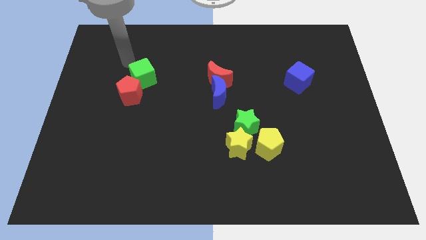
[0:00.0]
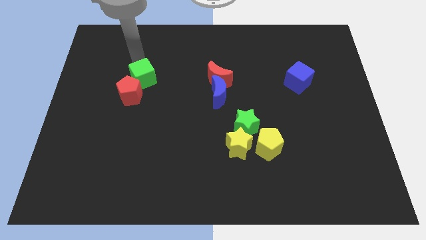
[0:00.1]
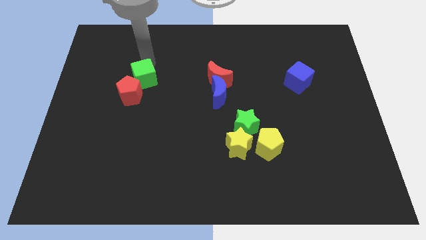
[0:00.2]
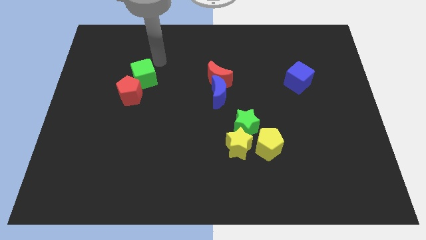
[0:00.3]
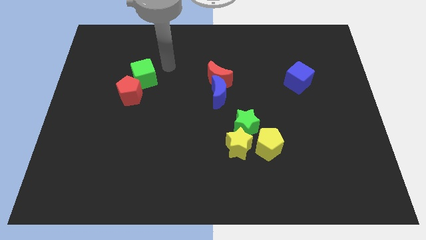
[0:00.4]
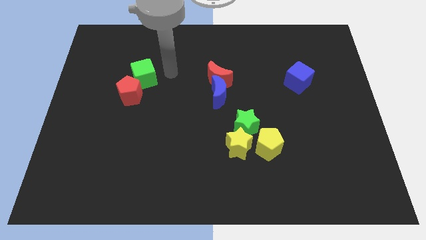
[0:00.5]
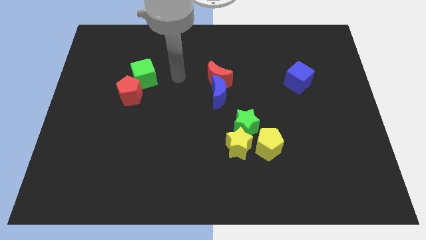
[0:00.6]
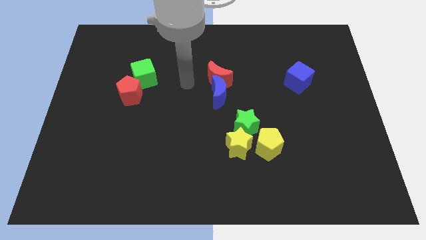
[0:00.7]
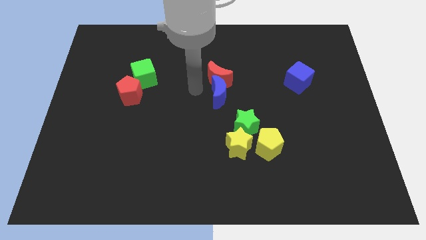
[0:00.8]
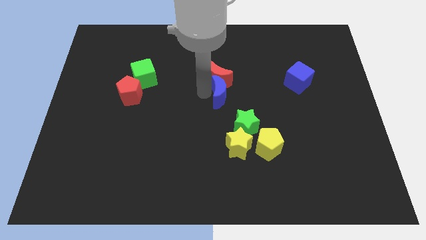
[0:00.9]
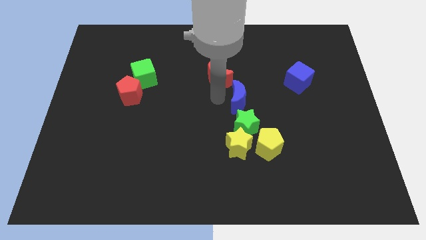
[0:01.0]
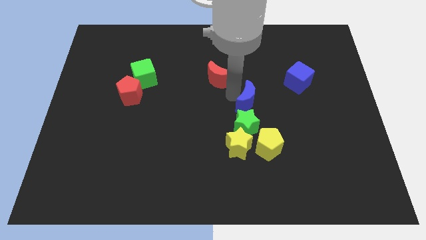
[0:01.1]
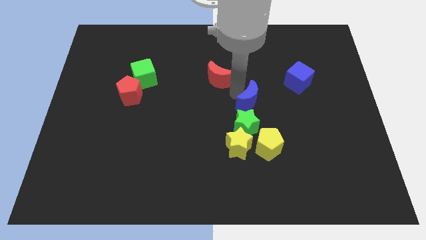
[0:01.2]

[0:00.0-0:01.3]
separate the red moon from the blue moon

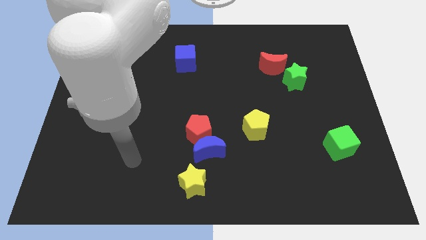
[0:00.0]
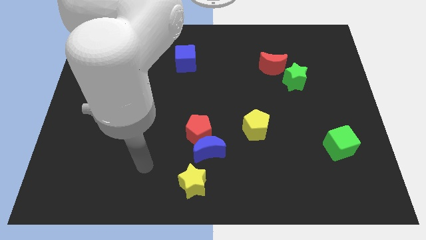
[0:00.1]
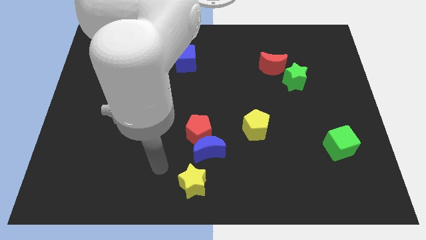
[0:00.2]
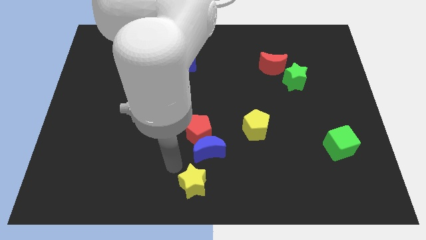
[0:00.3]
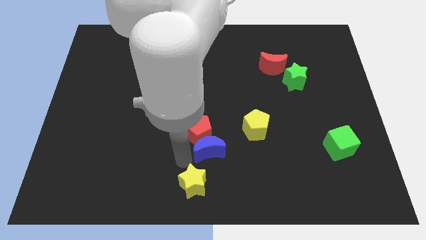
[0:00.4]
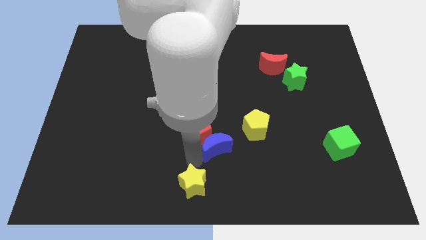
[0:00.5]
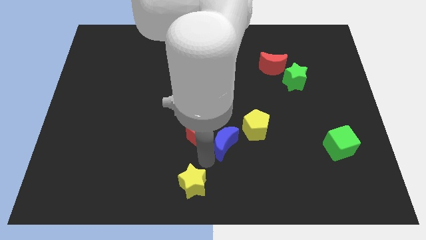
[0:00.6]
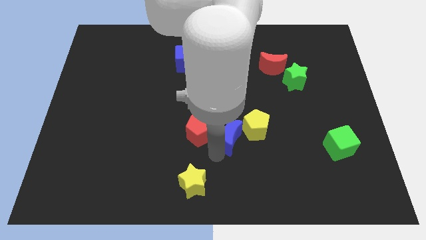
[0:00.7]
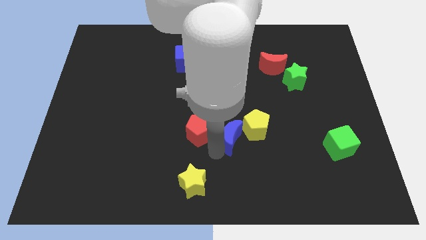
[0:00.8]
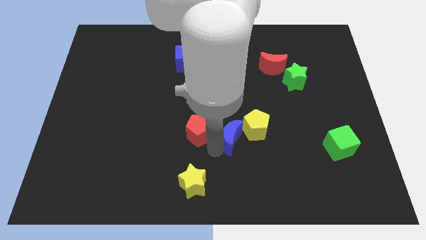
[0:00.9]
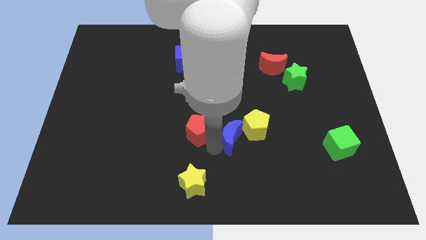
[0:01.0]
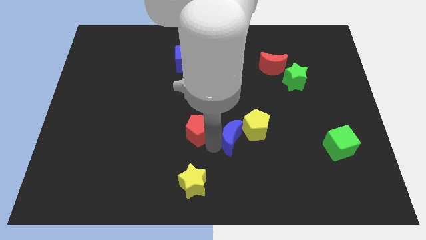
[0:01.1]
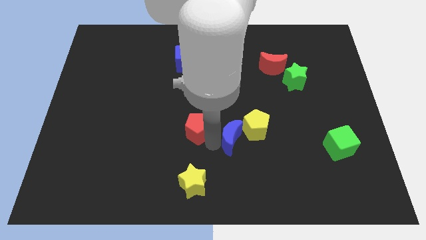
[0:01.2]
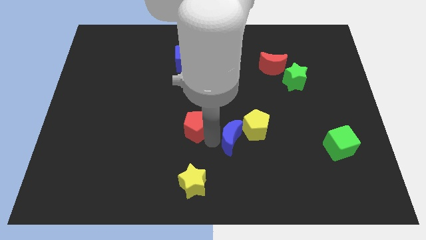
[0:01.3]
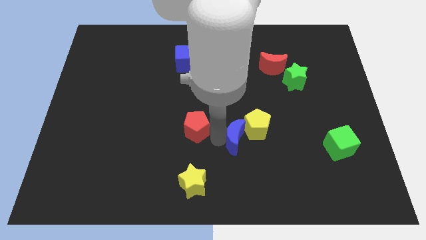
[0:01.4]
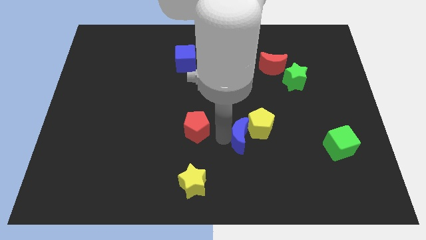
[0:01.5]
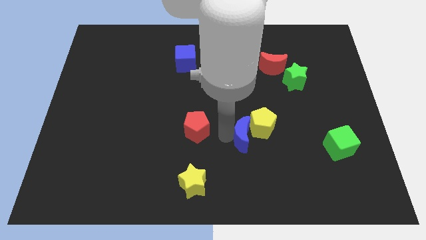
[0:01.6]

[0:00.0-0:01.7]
separate the red pentagon from the blue moon

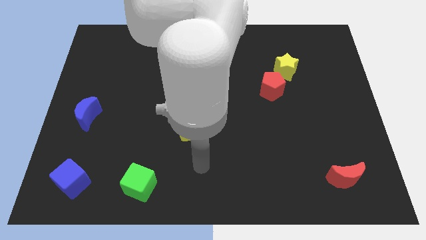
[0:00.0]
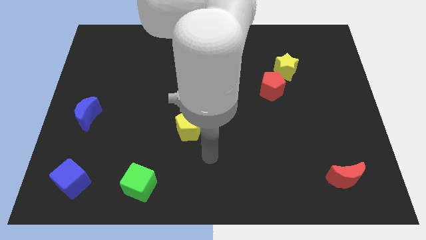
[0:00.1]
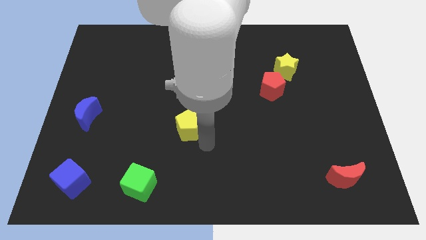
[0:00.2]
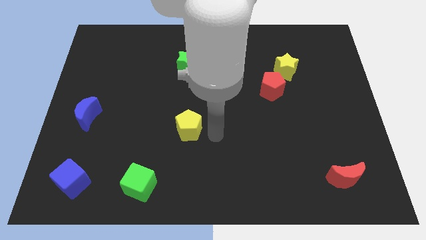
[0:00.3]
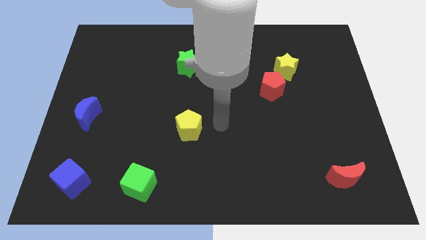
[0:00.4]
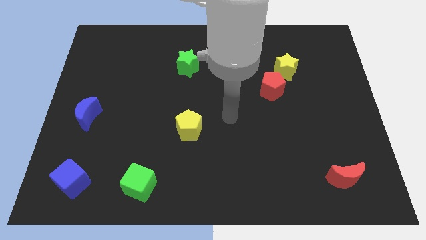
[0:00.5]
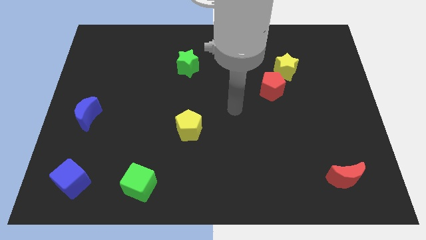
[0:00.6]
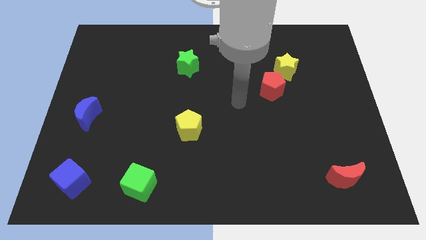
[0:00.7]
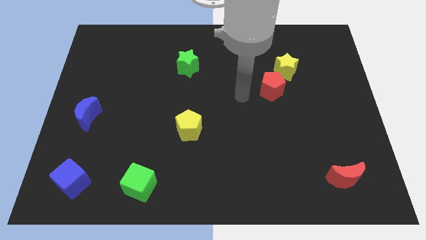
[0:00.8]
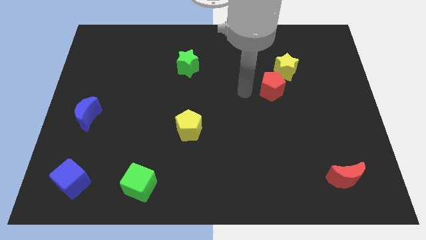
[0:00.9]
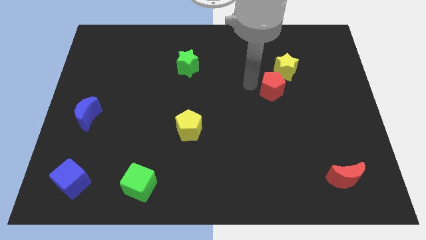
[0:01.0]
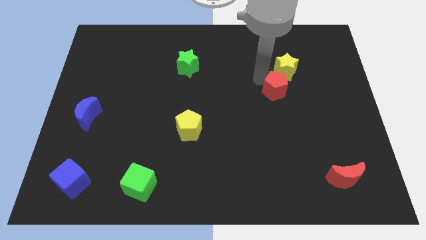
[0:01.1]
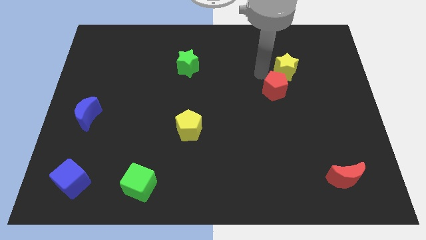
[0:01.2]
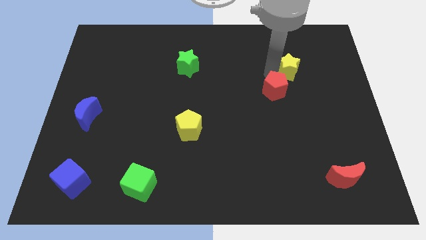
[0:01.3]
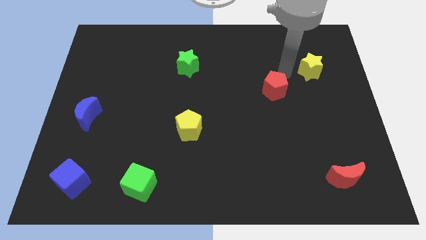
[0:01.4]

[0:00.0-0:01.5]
move the red pentagon away from the yellow star

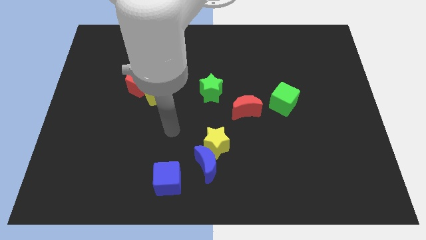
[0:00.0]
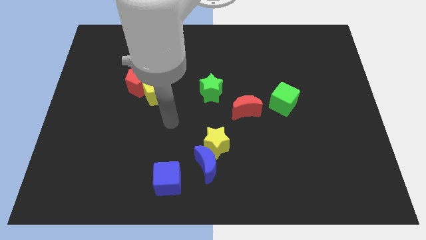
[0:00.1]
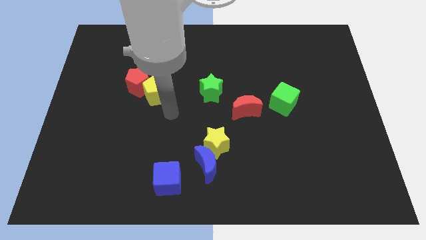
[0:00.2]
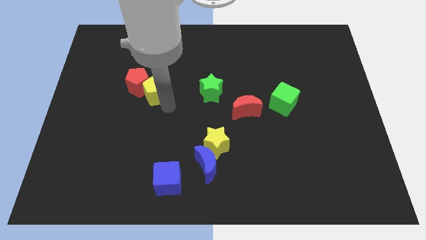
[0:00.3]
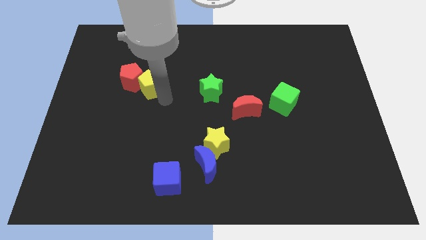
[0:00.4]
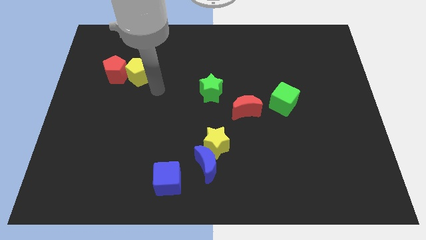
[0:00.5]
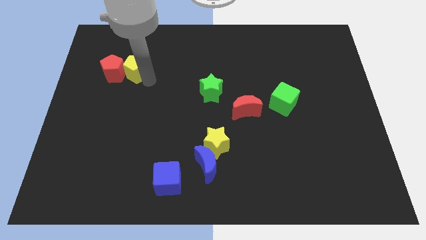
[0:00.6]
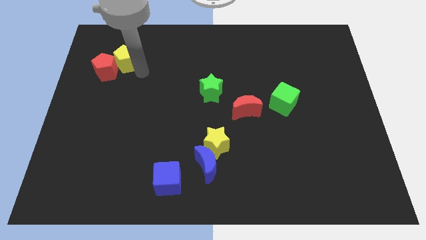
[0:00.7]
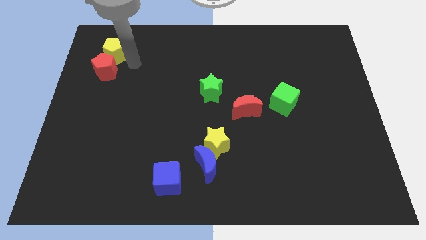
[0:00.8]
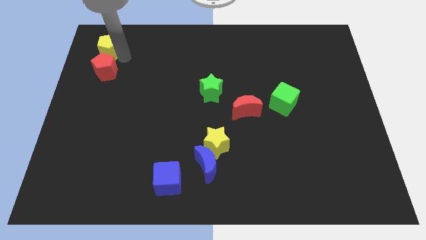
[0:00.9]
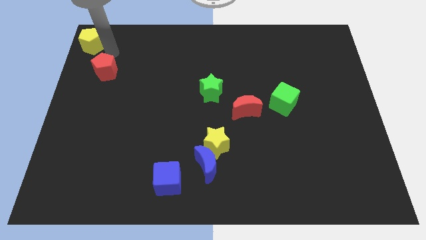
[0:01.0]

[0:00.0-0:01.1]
move the red pentagon away from the yellow pentagon

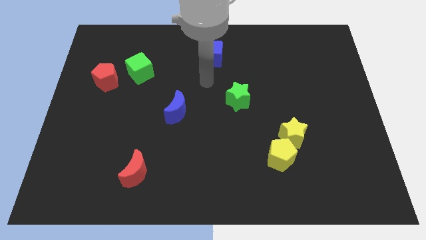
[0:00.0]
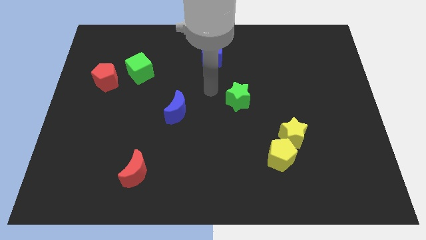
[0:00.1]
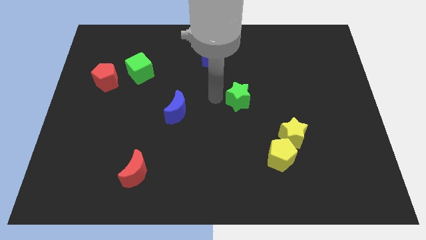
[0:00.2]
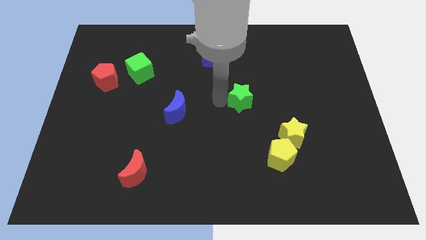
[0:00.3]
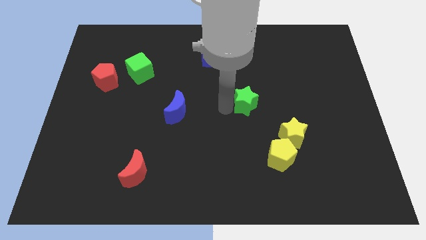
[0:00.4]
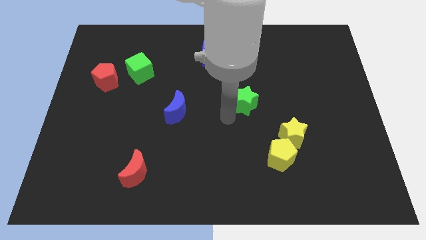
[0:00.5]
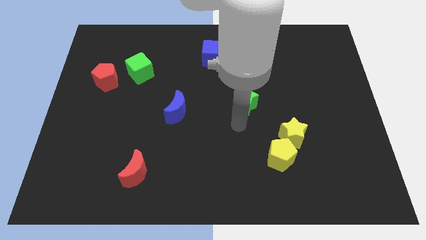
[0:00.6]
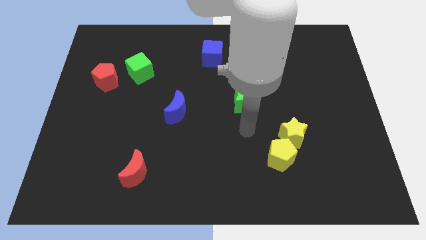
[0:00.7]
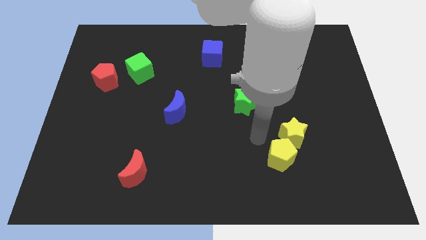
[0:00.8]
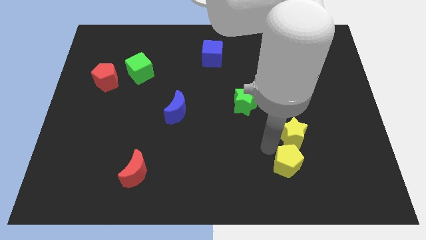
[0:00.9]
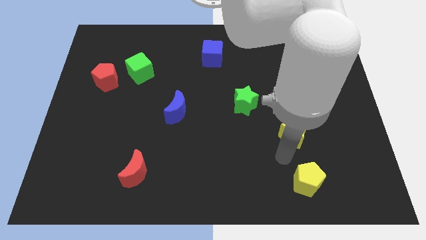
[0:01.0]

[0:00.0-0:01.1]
move the yellow star away from the yellow pentagon

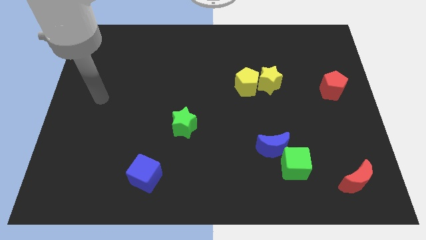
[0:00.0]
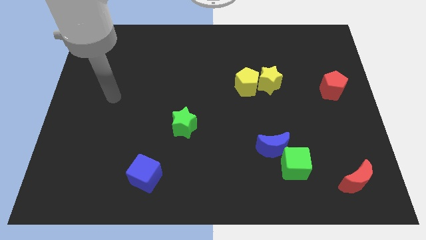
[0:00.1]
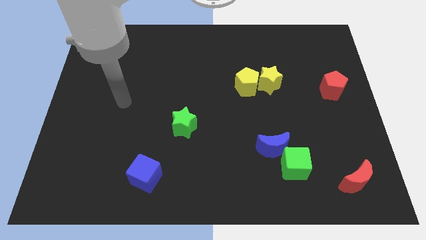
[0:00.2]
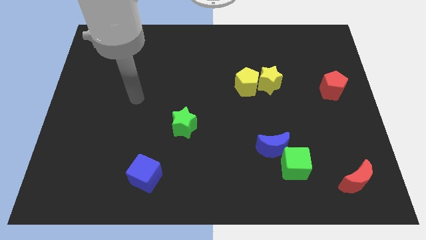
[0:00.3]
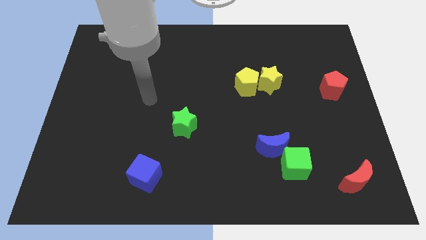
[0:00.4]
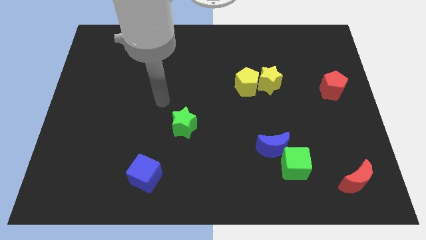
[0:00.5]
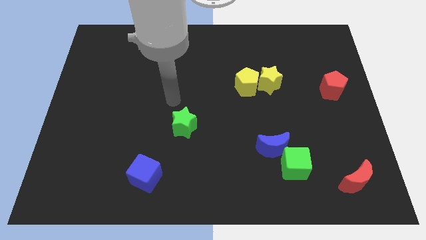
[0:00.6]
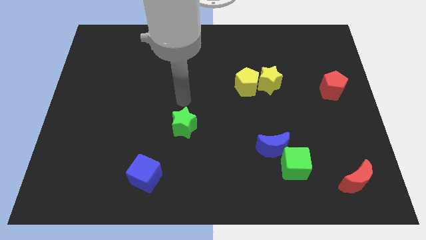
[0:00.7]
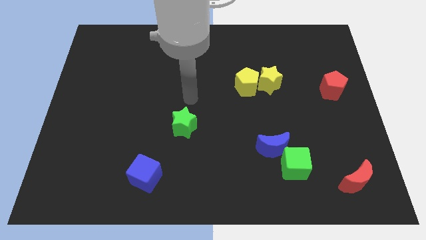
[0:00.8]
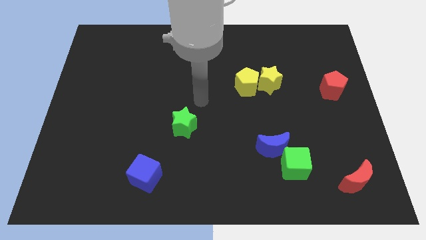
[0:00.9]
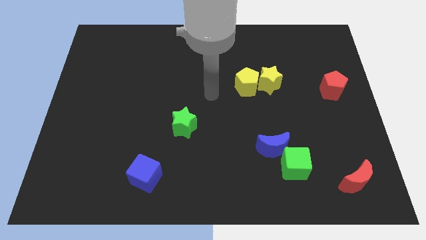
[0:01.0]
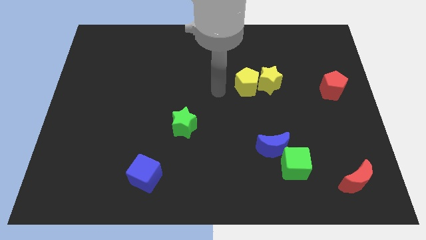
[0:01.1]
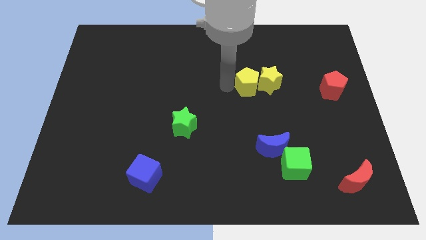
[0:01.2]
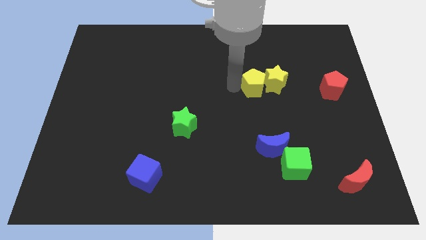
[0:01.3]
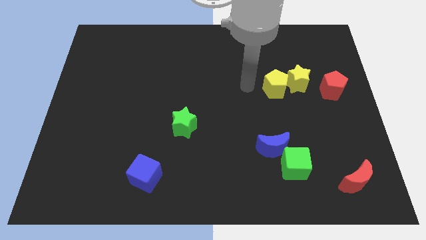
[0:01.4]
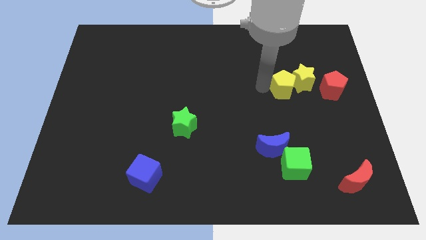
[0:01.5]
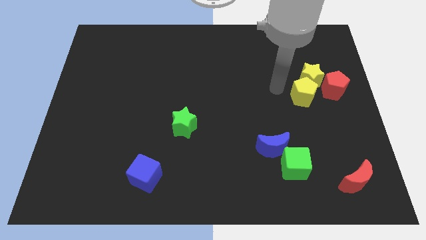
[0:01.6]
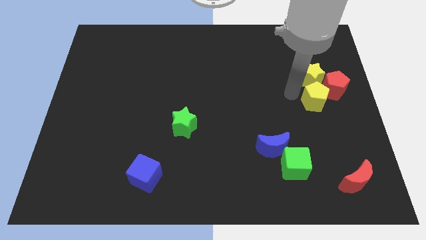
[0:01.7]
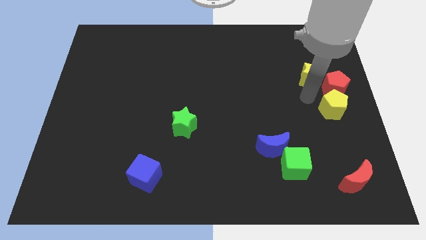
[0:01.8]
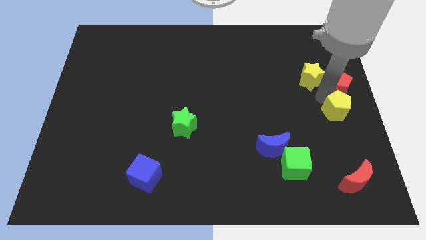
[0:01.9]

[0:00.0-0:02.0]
separate the yellow star from the yellow pentagon

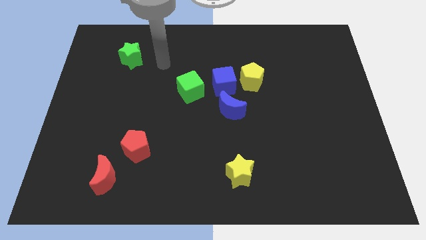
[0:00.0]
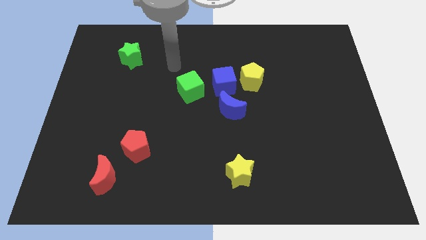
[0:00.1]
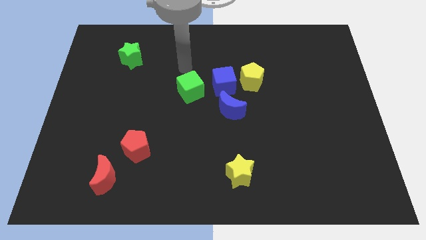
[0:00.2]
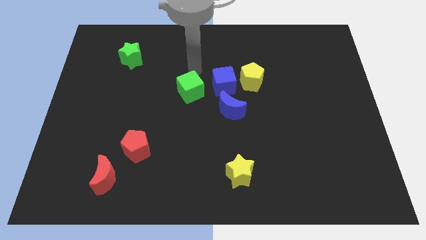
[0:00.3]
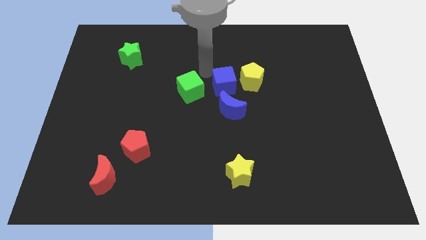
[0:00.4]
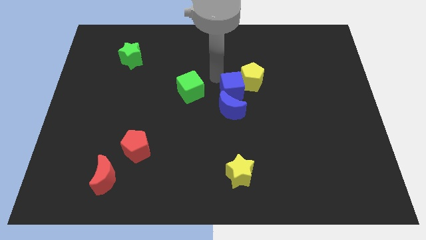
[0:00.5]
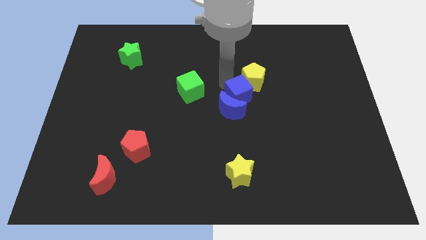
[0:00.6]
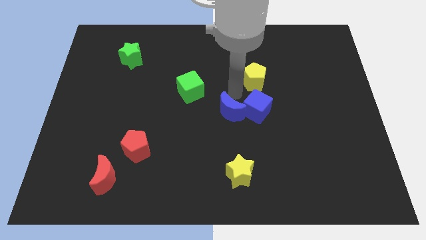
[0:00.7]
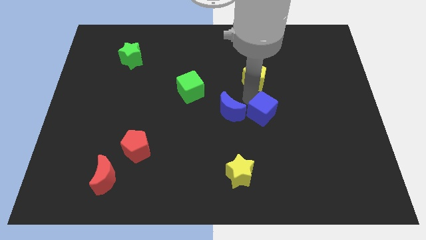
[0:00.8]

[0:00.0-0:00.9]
move the yellow pentagon away from the blue cube
